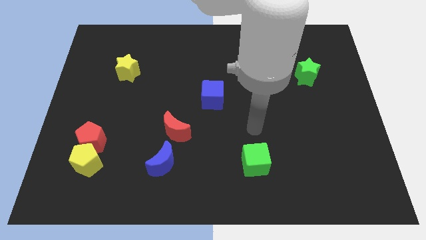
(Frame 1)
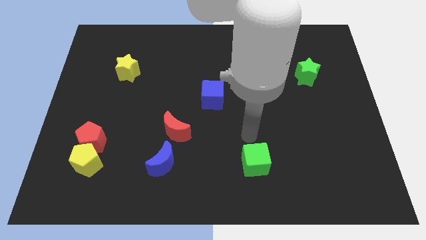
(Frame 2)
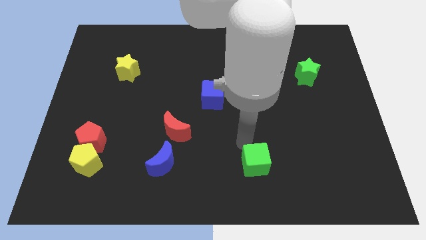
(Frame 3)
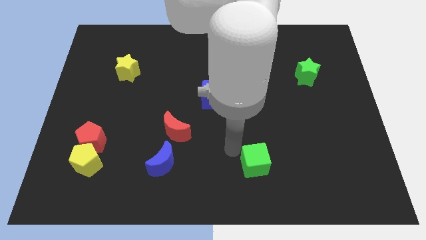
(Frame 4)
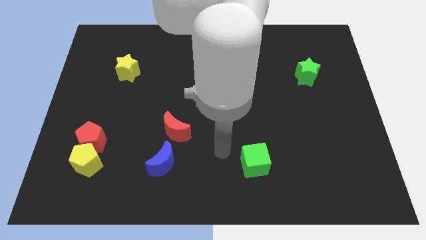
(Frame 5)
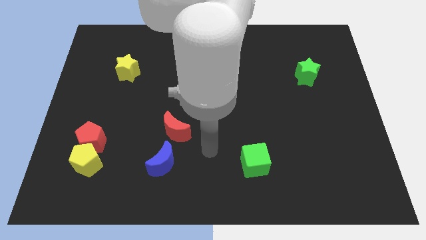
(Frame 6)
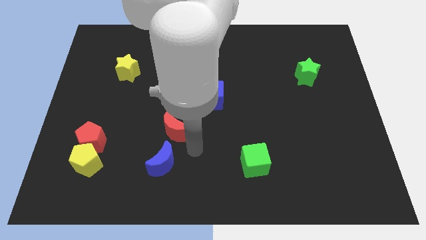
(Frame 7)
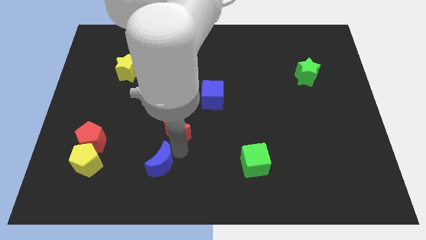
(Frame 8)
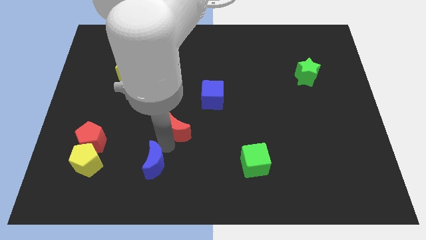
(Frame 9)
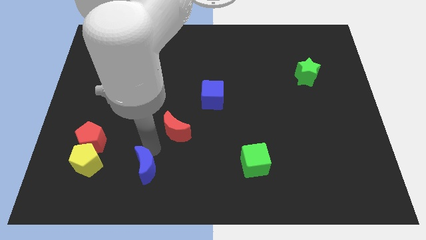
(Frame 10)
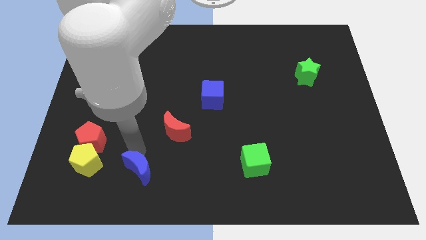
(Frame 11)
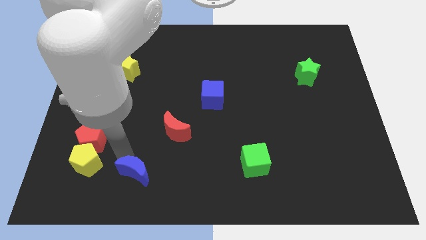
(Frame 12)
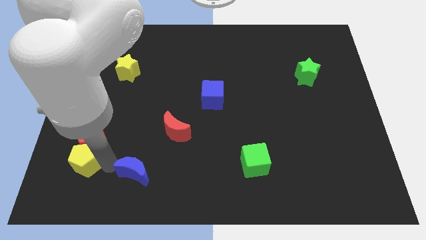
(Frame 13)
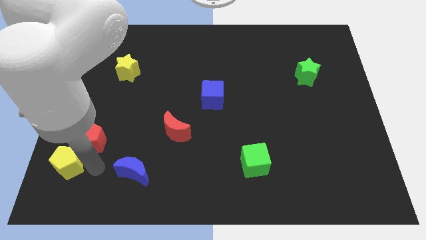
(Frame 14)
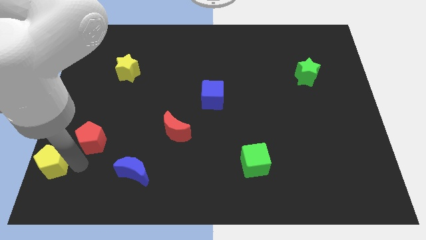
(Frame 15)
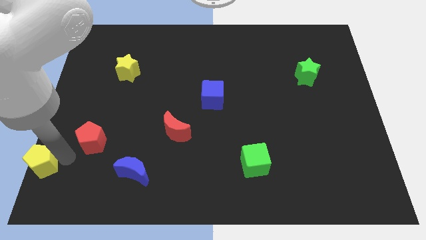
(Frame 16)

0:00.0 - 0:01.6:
pull the red pentagon apart from the yellow pentagon

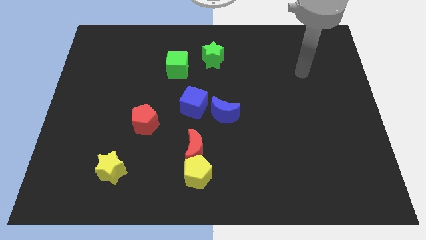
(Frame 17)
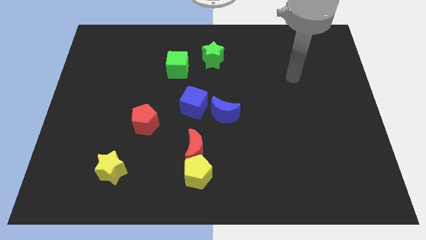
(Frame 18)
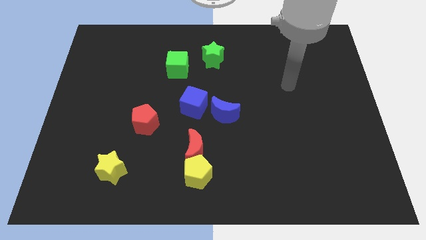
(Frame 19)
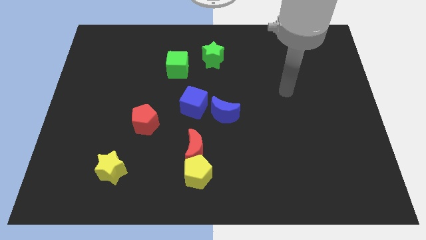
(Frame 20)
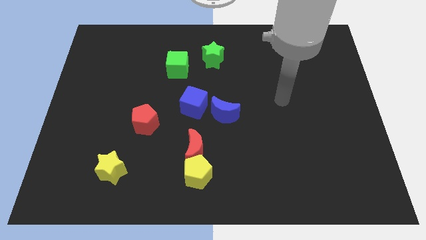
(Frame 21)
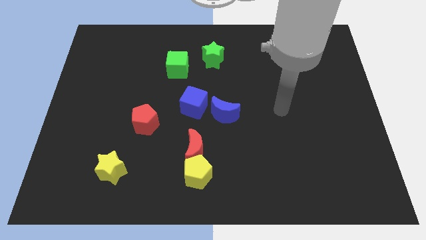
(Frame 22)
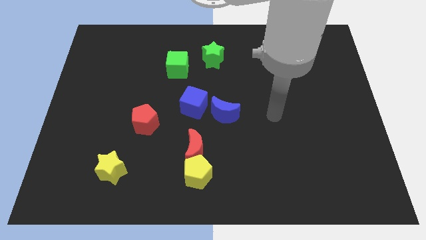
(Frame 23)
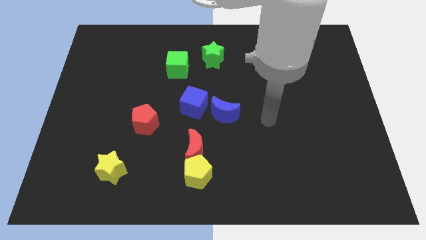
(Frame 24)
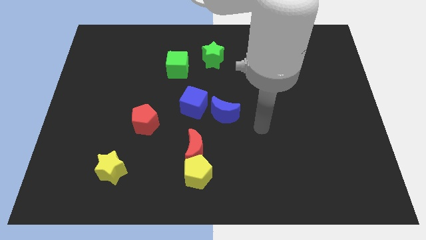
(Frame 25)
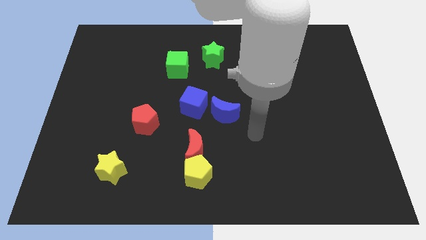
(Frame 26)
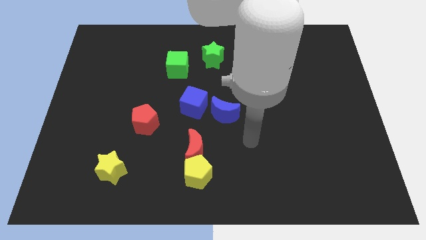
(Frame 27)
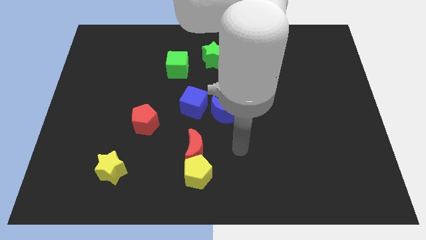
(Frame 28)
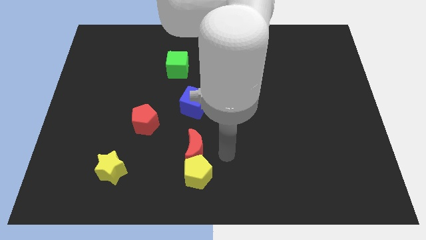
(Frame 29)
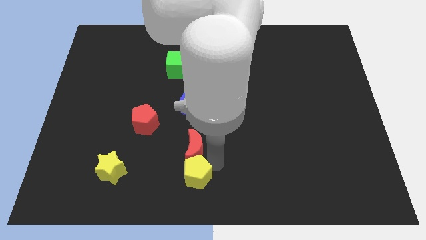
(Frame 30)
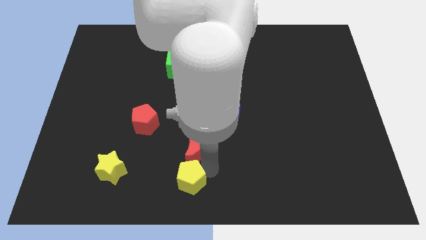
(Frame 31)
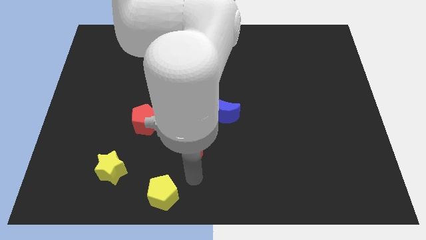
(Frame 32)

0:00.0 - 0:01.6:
pull the red moon apart from the yellow pentagon

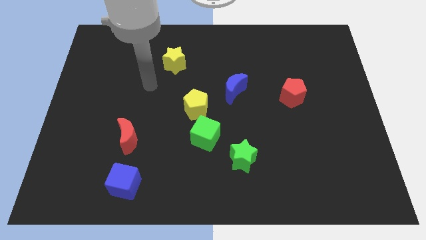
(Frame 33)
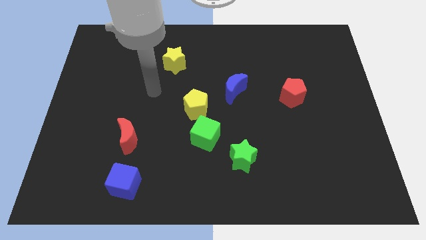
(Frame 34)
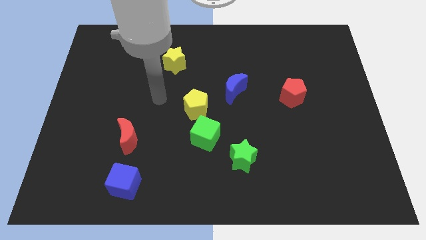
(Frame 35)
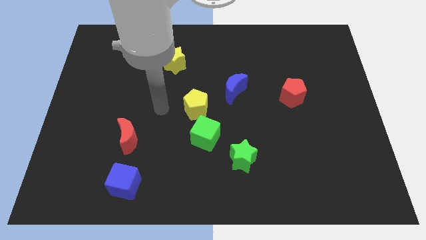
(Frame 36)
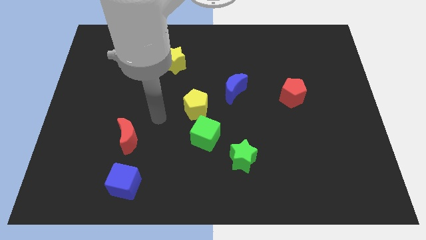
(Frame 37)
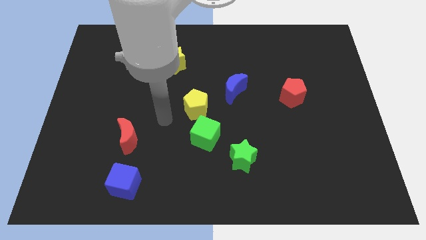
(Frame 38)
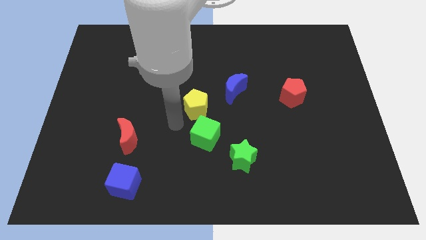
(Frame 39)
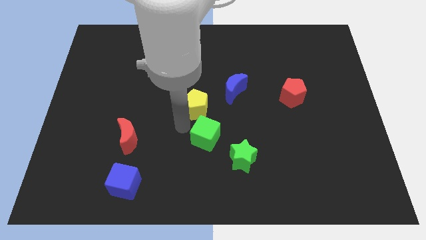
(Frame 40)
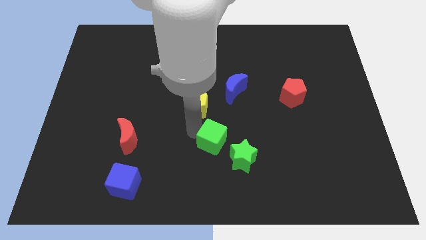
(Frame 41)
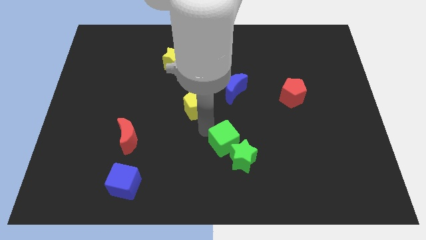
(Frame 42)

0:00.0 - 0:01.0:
move the yellow pentagon away from the green cube

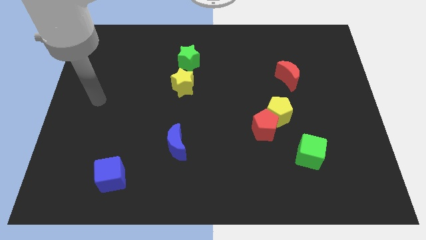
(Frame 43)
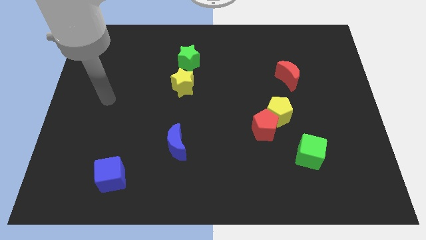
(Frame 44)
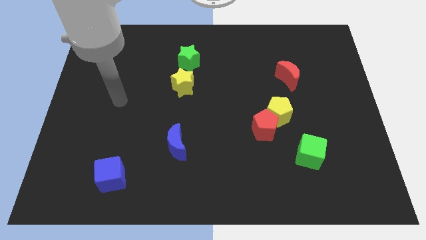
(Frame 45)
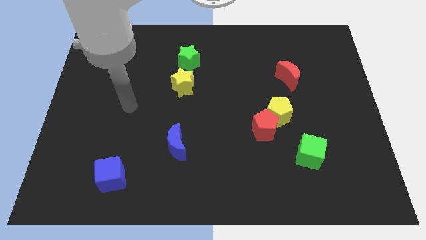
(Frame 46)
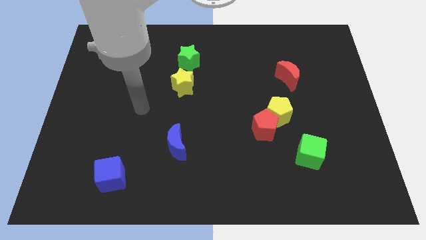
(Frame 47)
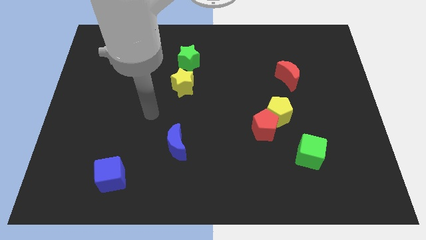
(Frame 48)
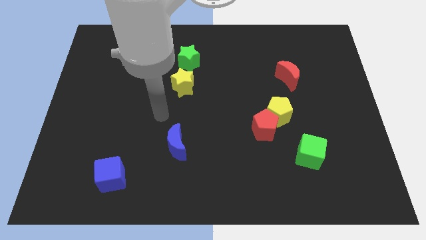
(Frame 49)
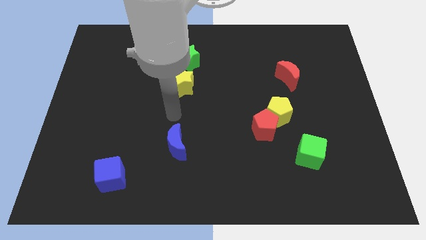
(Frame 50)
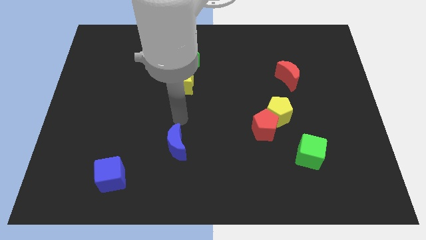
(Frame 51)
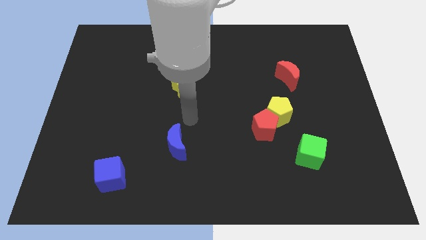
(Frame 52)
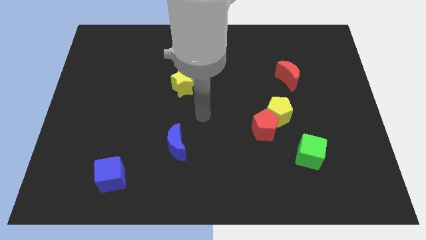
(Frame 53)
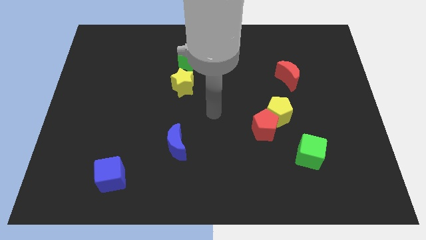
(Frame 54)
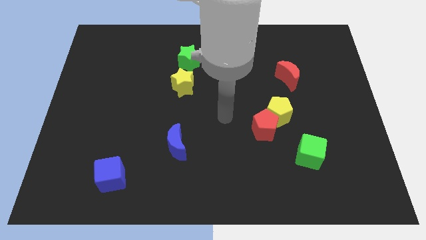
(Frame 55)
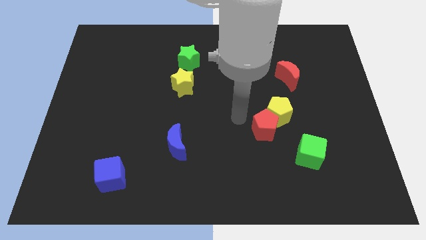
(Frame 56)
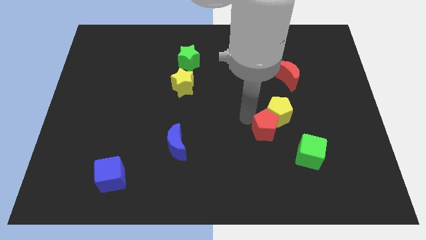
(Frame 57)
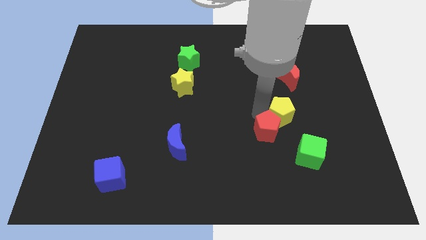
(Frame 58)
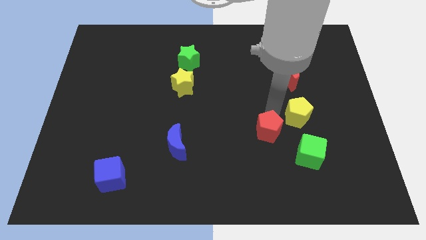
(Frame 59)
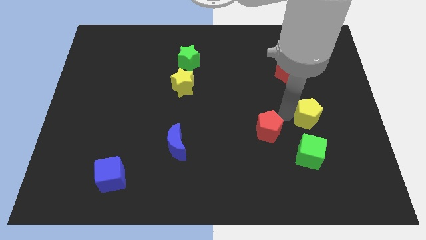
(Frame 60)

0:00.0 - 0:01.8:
separate the red pentagon from the yellow pentagon

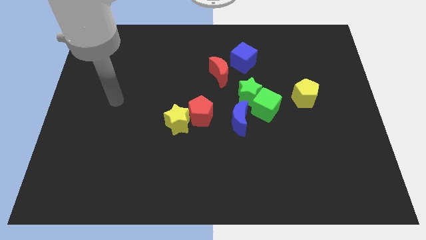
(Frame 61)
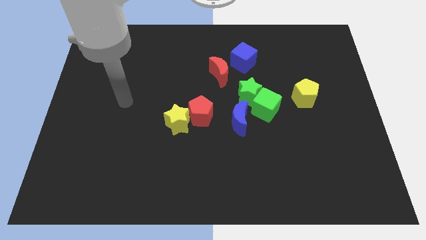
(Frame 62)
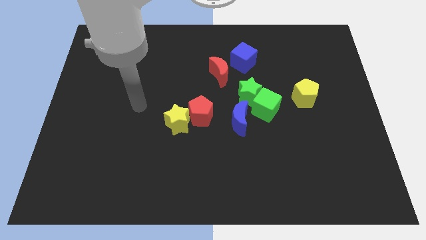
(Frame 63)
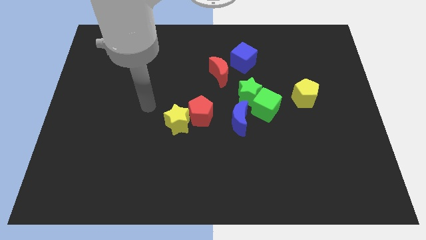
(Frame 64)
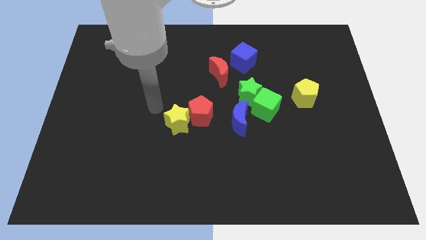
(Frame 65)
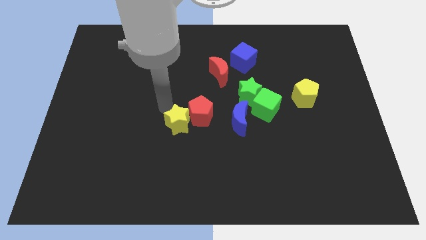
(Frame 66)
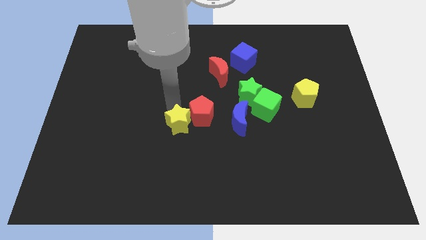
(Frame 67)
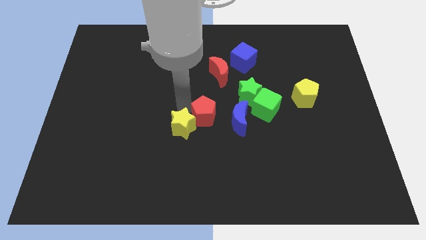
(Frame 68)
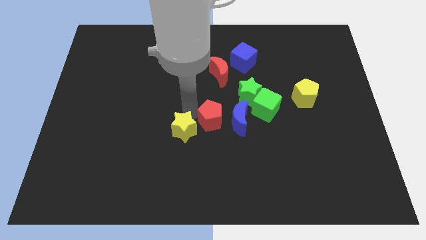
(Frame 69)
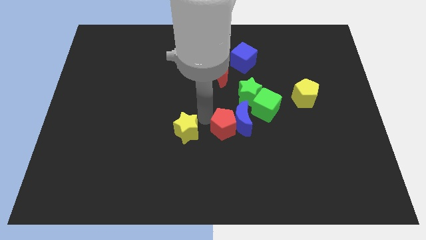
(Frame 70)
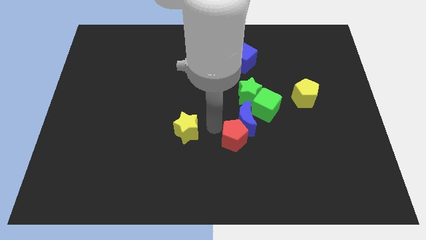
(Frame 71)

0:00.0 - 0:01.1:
pull the yellow star apart from the red pentagon

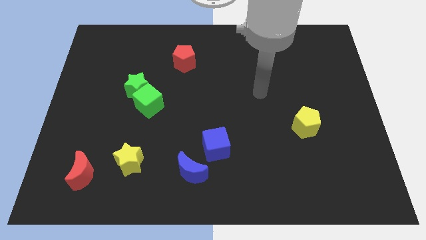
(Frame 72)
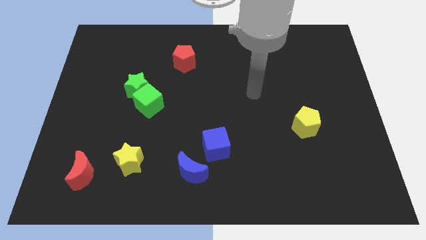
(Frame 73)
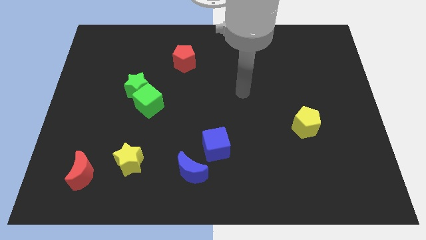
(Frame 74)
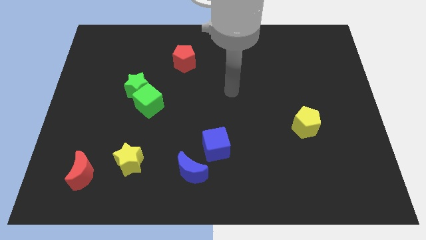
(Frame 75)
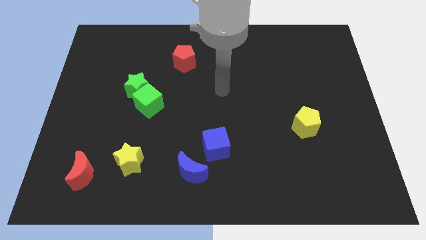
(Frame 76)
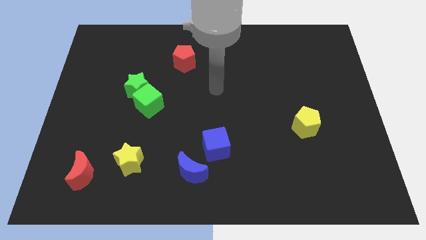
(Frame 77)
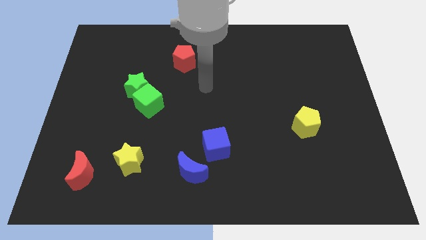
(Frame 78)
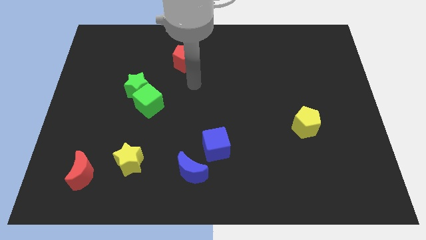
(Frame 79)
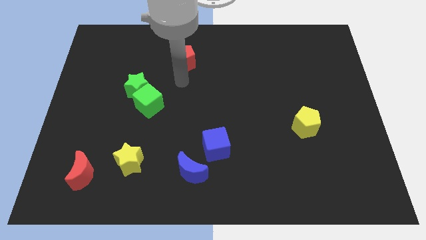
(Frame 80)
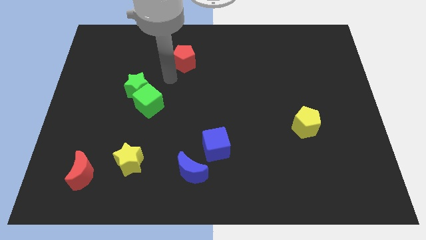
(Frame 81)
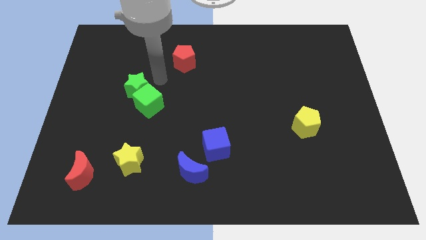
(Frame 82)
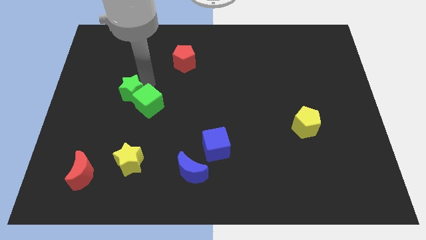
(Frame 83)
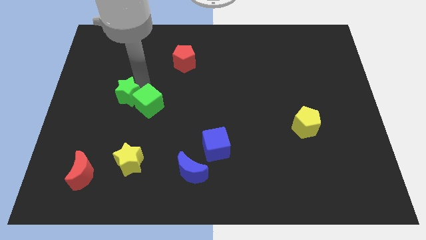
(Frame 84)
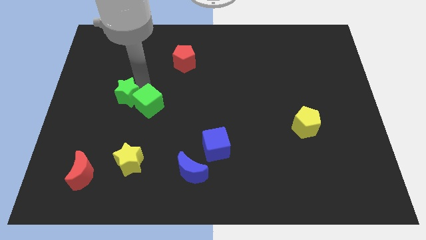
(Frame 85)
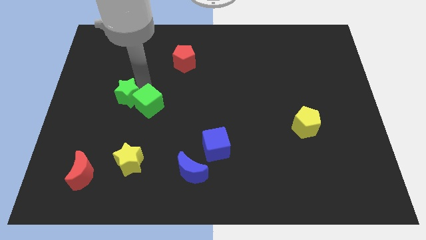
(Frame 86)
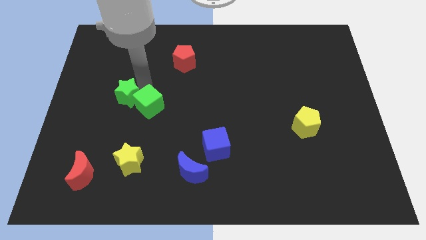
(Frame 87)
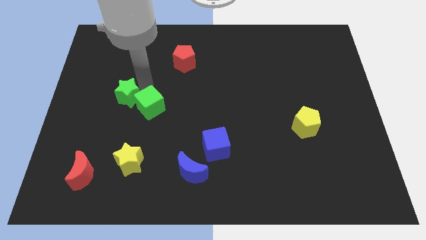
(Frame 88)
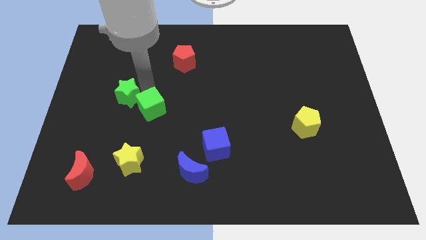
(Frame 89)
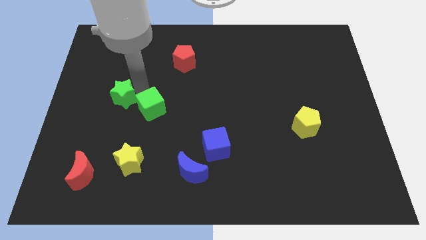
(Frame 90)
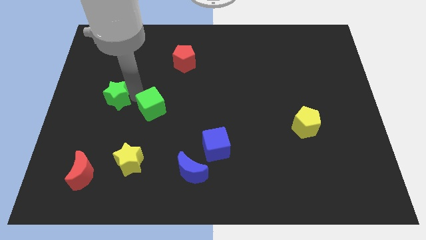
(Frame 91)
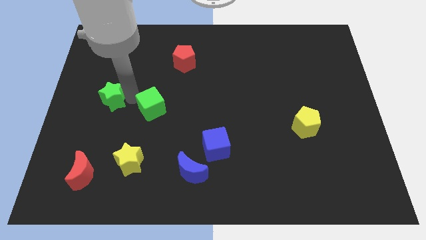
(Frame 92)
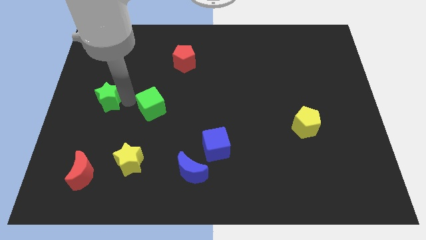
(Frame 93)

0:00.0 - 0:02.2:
separate the green cube from the green star
